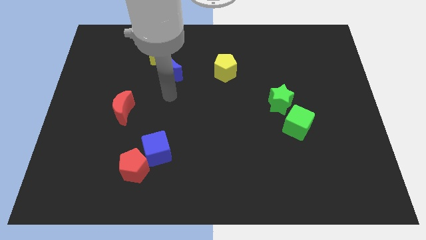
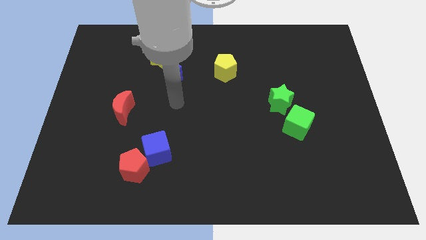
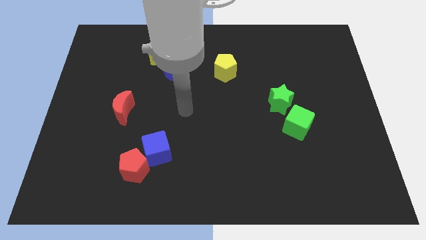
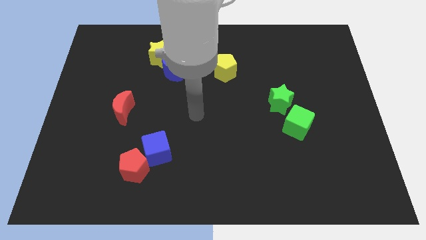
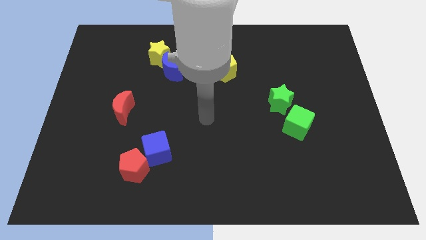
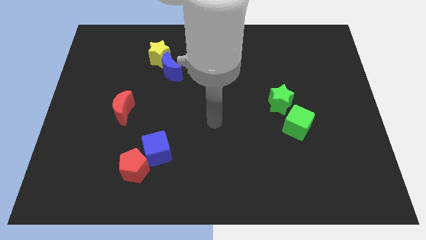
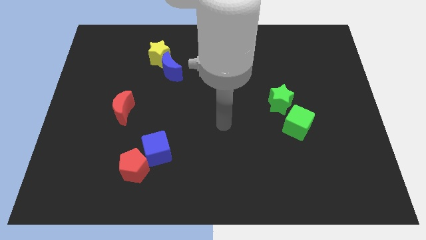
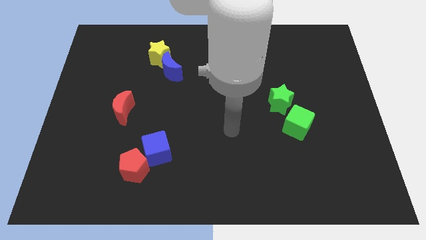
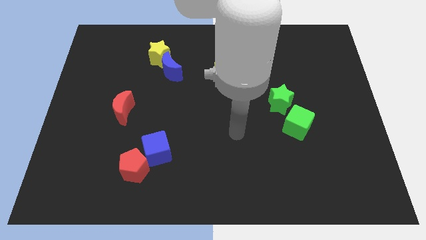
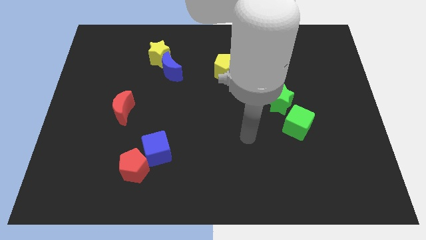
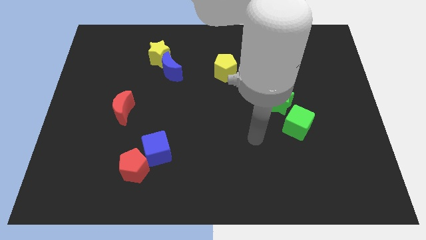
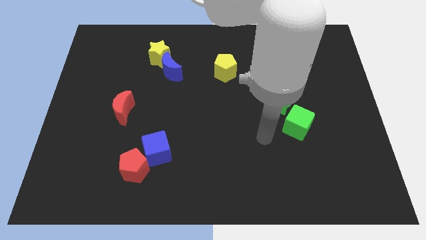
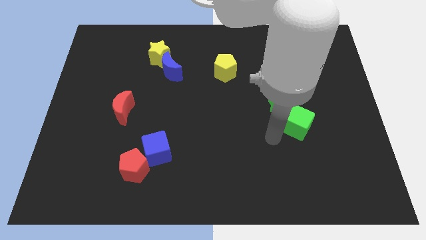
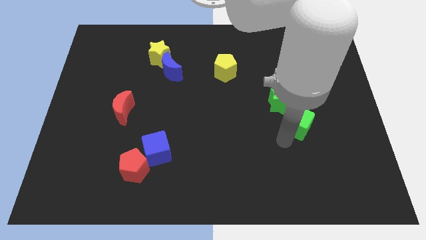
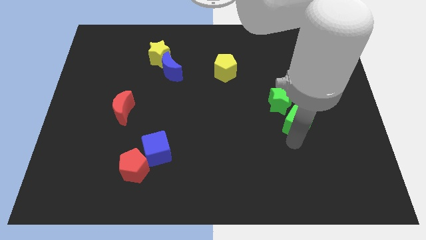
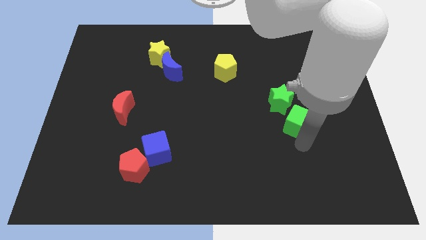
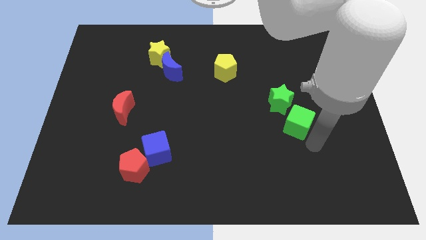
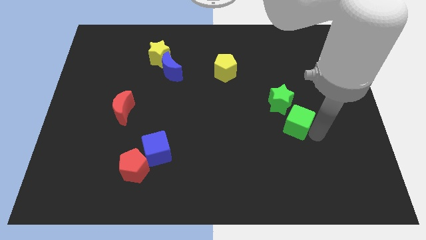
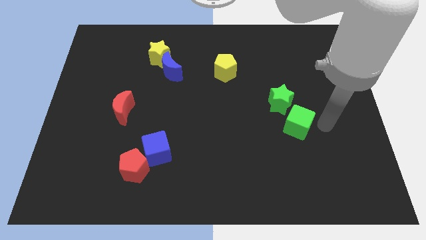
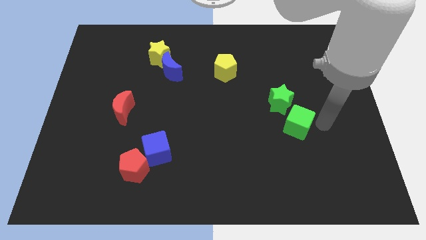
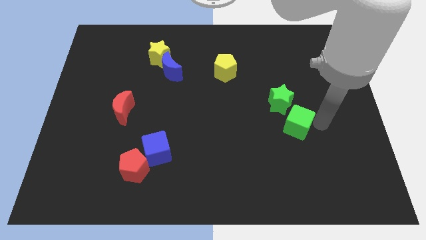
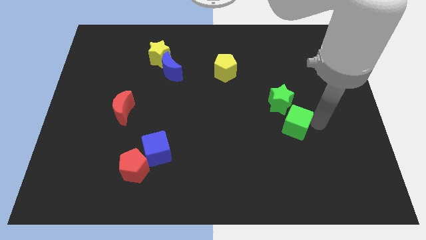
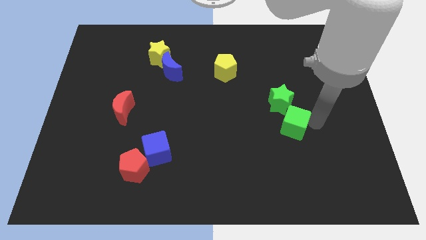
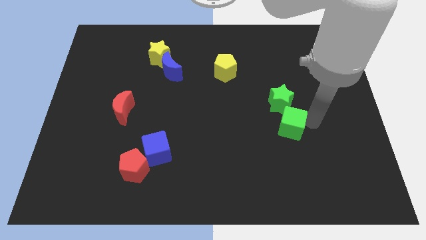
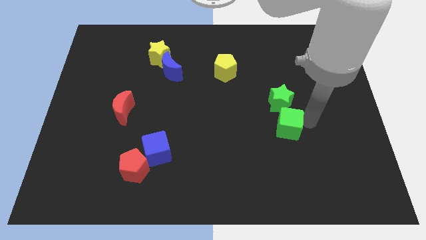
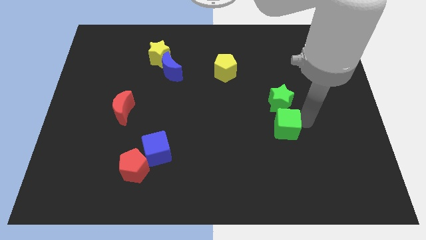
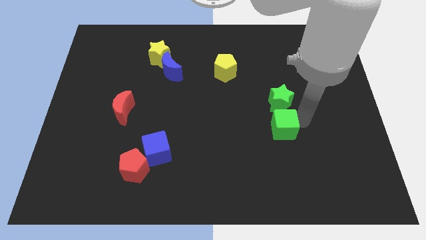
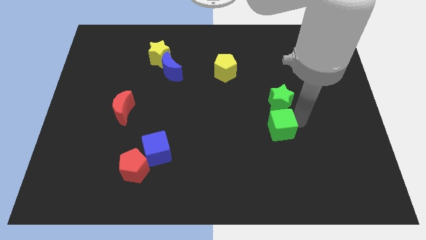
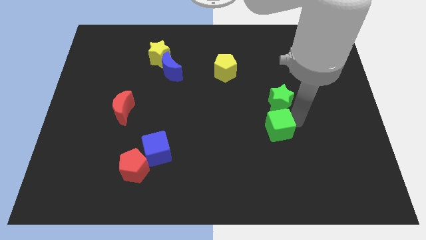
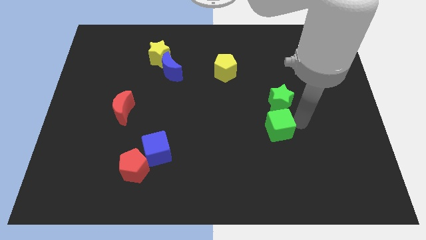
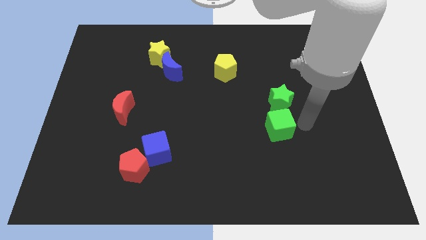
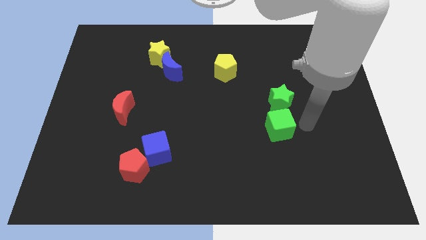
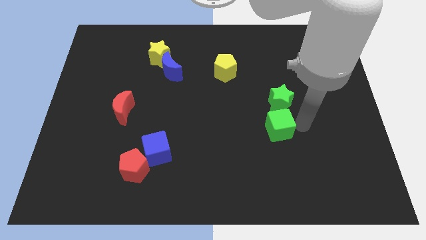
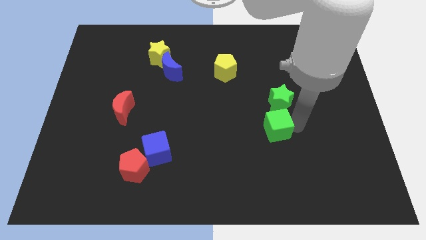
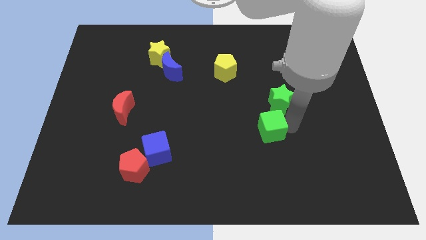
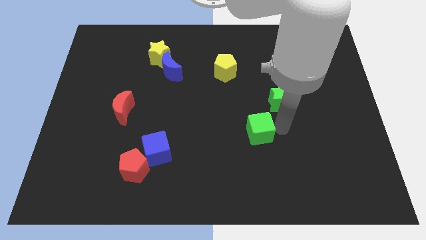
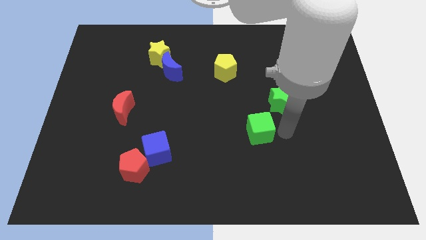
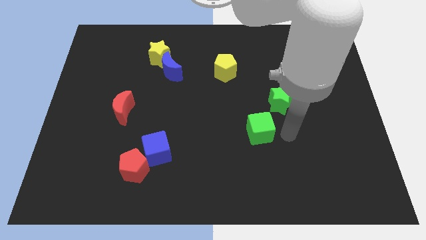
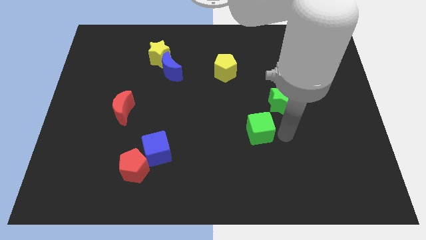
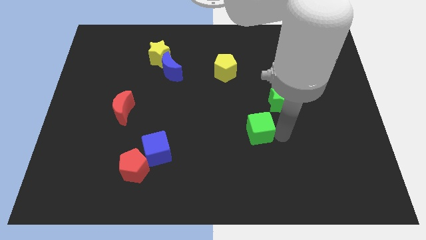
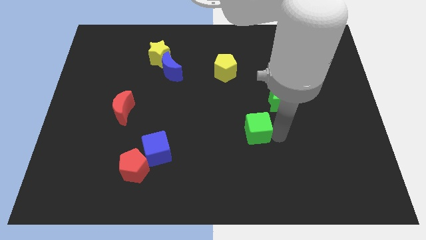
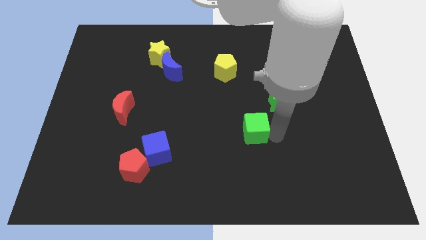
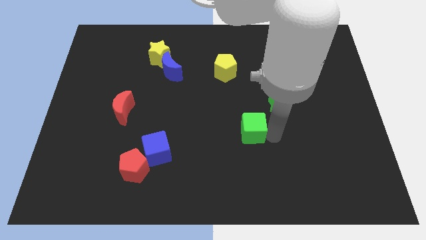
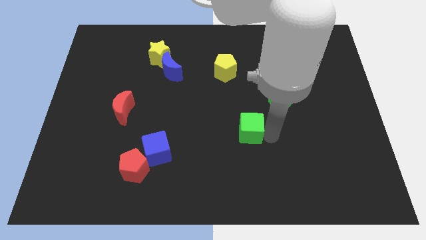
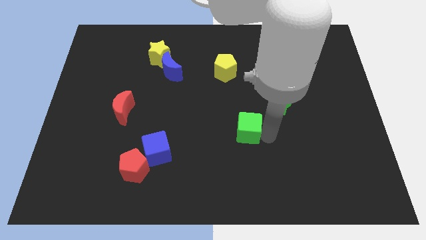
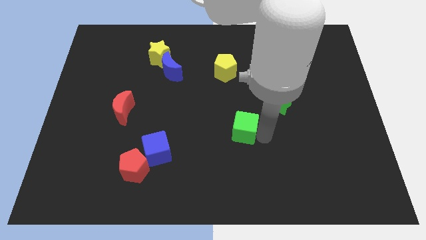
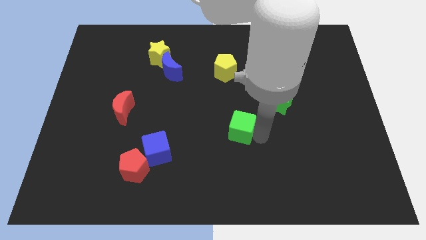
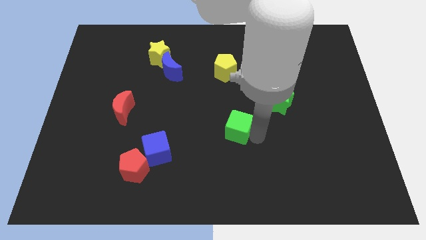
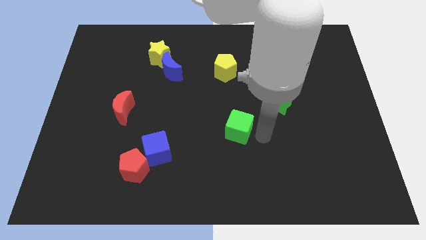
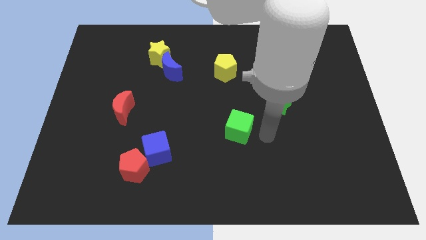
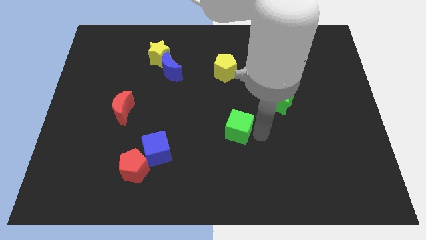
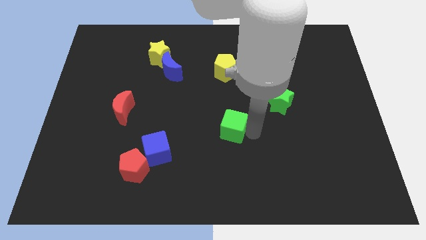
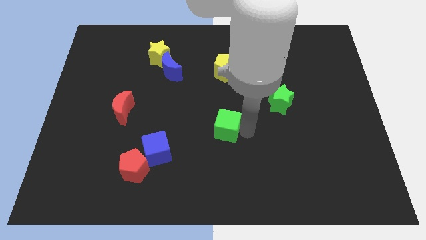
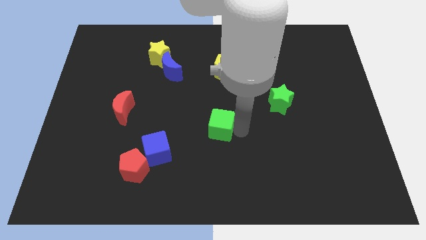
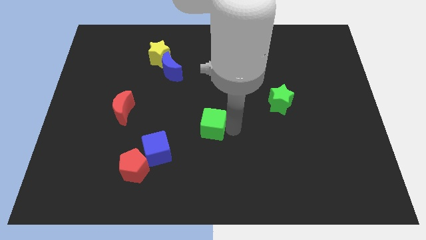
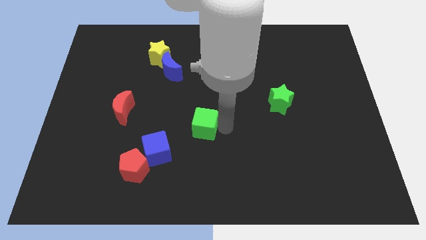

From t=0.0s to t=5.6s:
push the green cube left

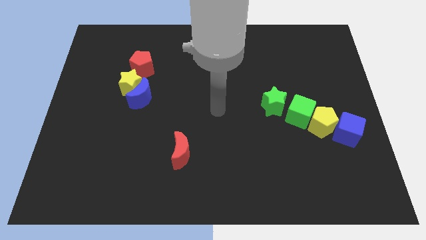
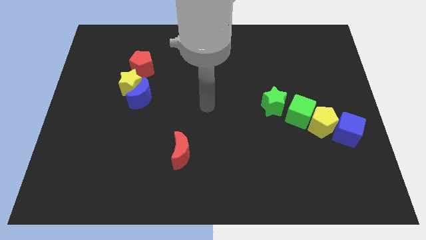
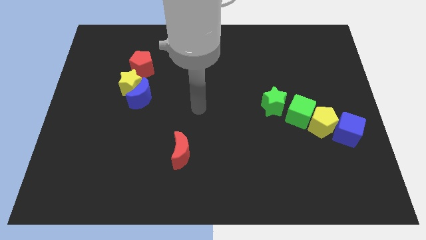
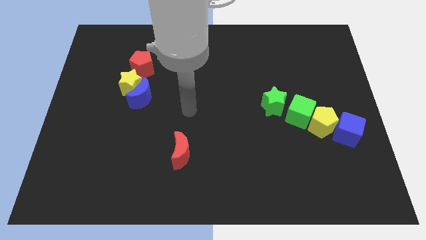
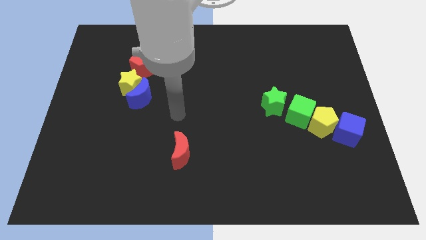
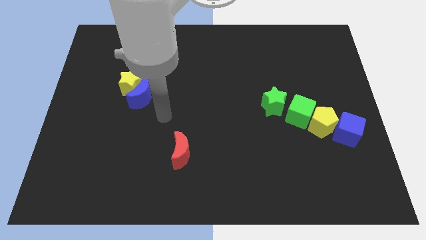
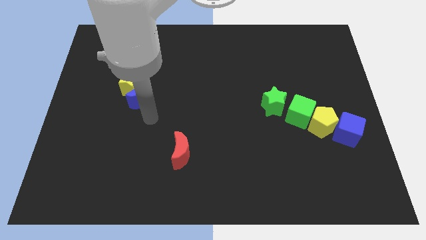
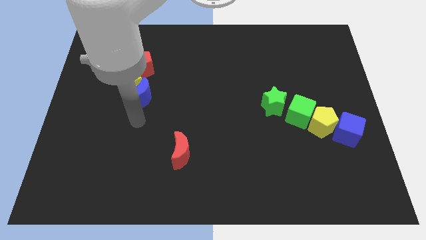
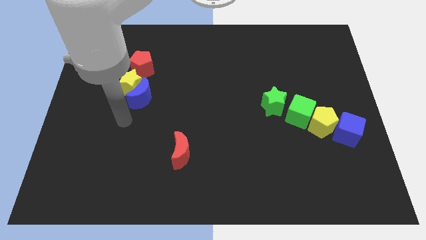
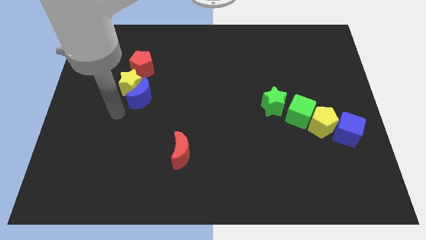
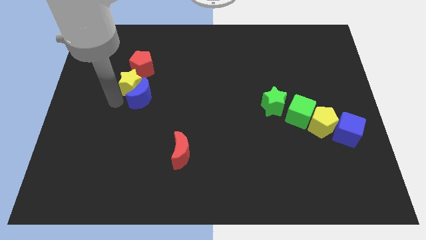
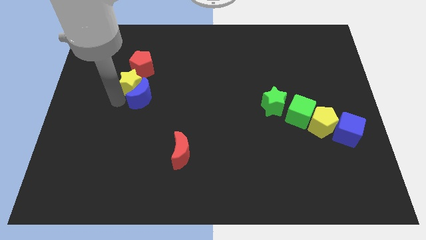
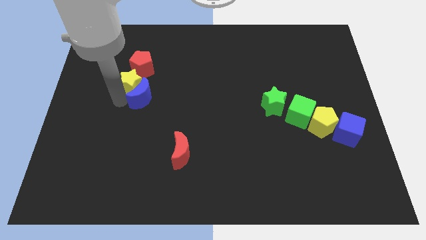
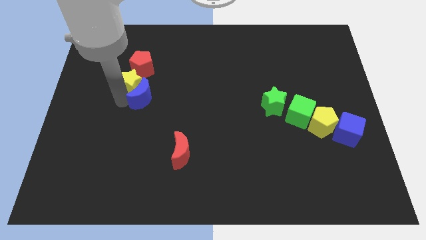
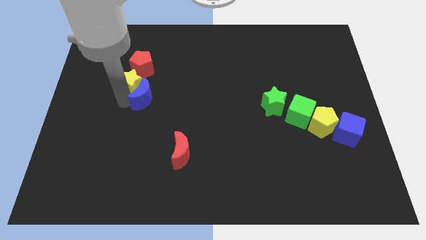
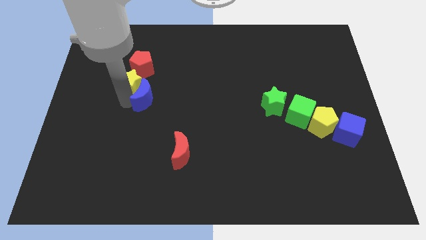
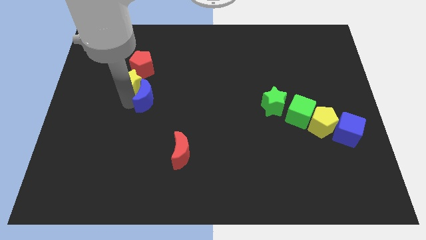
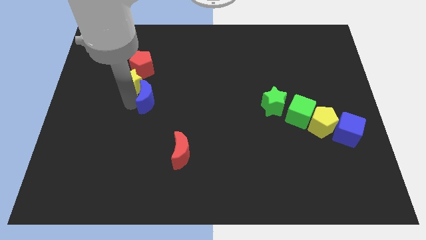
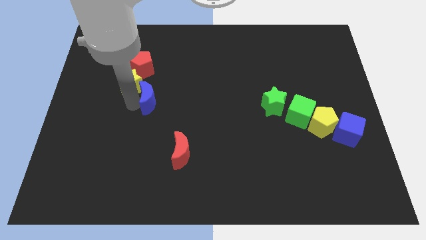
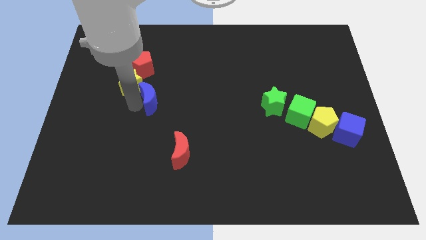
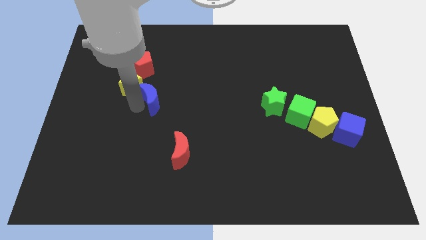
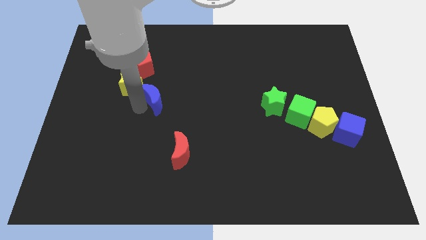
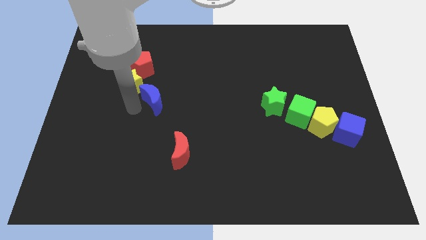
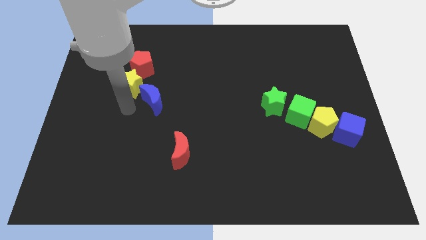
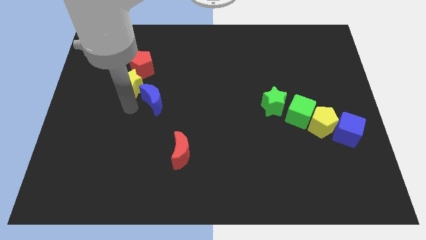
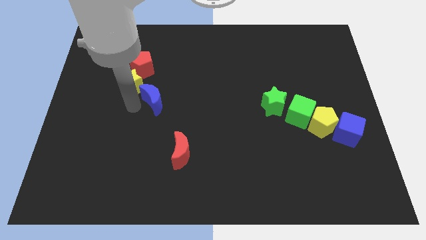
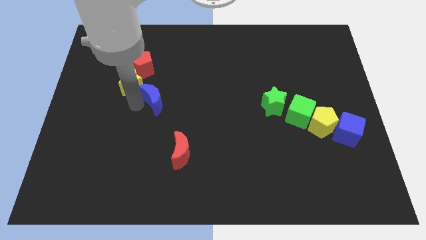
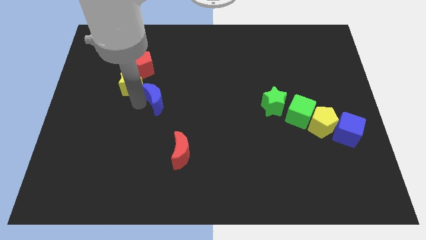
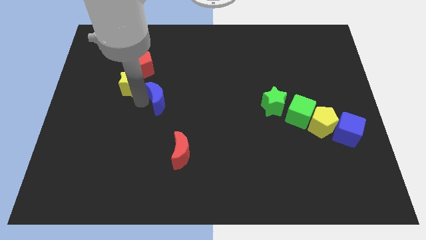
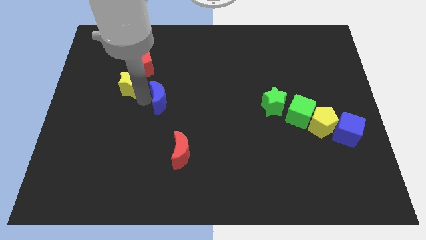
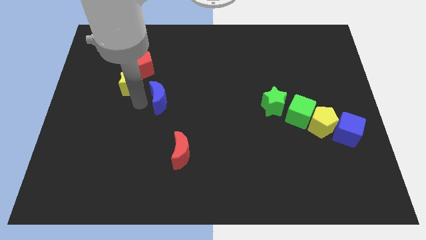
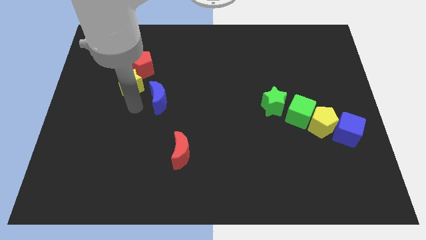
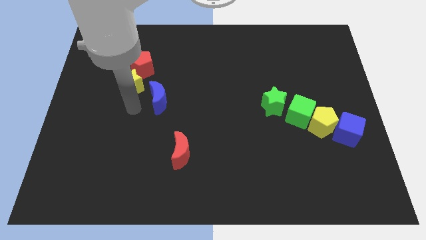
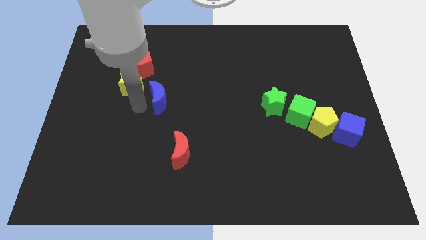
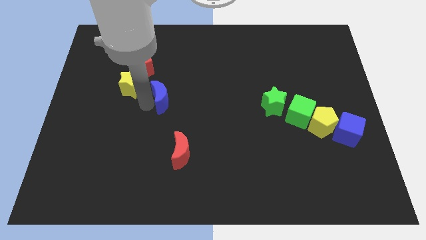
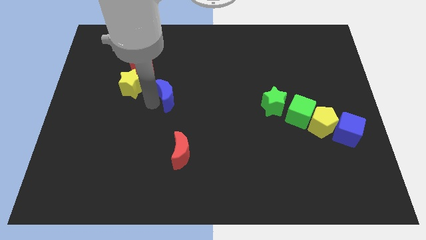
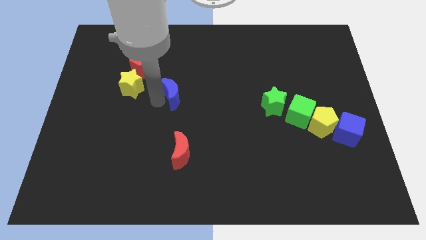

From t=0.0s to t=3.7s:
move the blue moon slightly to the right
